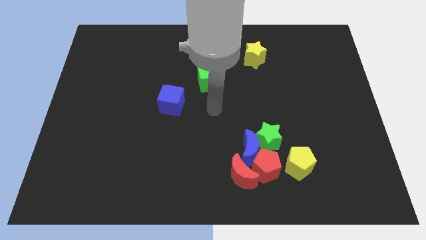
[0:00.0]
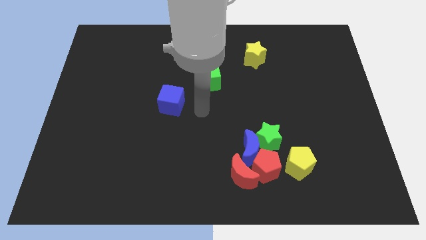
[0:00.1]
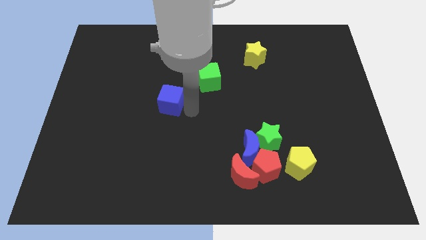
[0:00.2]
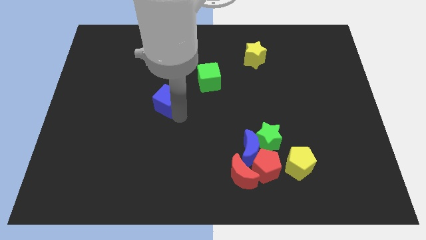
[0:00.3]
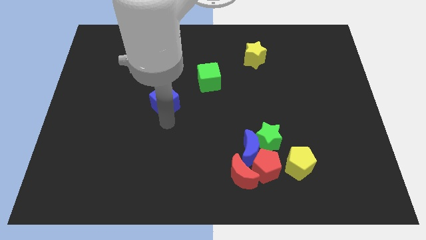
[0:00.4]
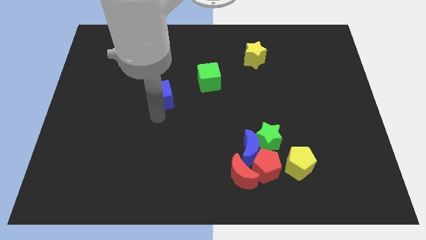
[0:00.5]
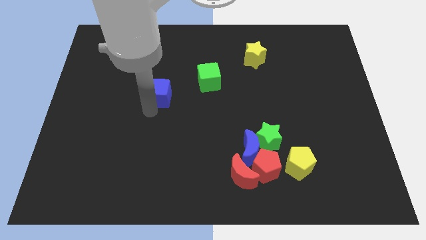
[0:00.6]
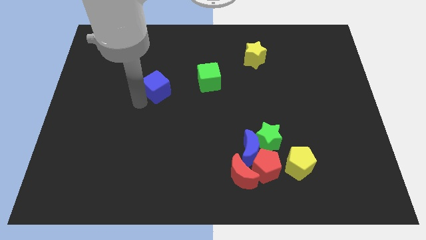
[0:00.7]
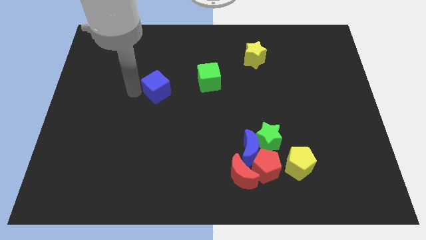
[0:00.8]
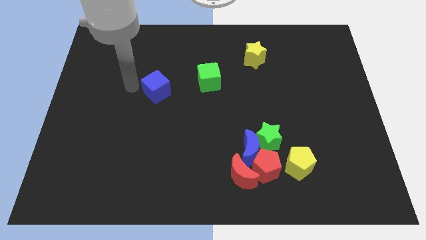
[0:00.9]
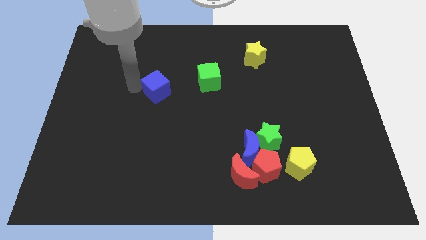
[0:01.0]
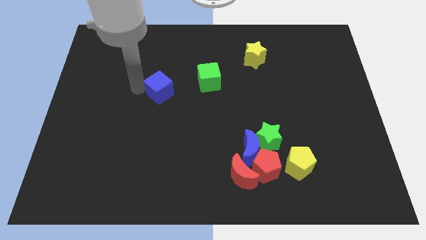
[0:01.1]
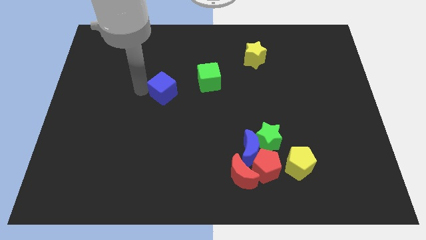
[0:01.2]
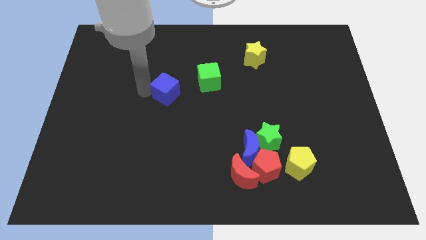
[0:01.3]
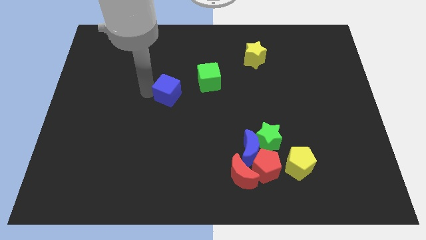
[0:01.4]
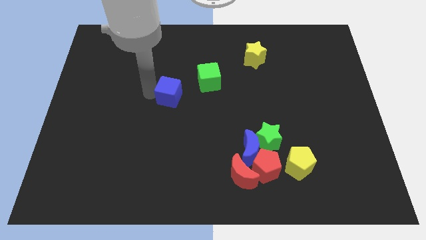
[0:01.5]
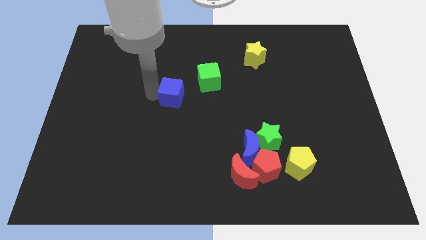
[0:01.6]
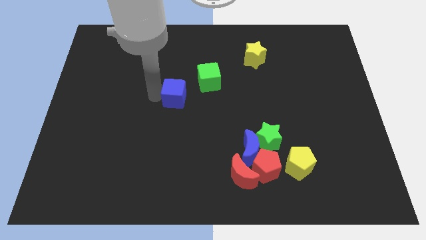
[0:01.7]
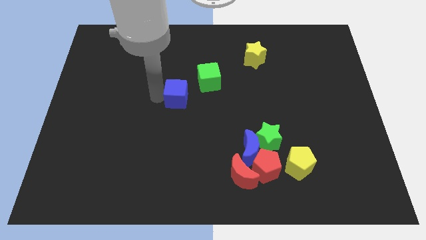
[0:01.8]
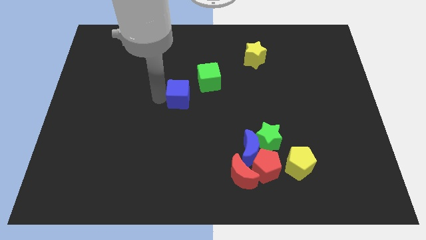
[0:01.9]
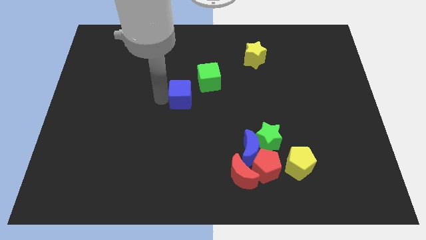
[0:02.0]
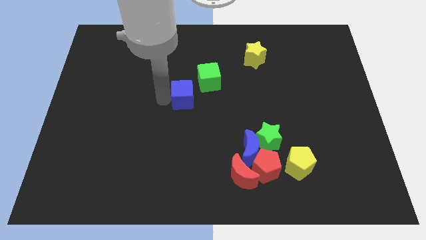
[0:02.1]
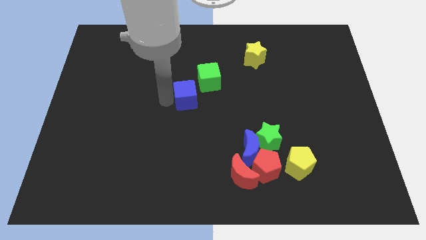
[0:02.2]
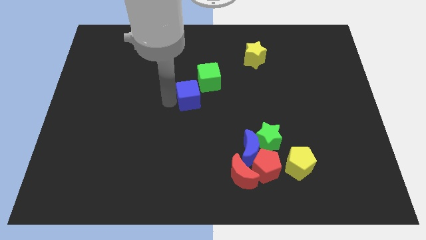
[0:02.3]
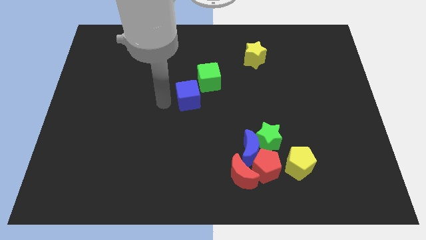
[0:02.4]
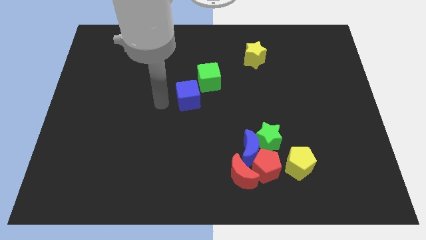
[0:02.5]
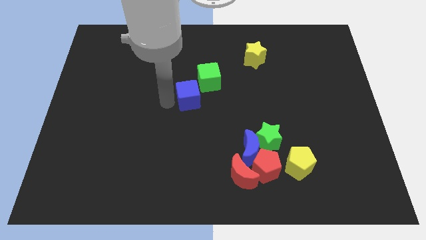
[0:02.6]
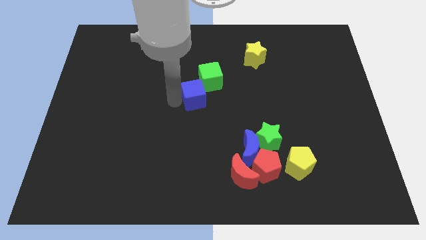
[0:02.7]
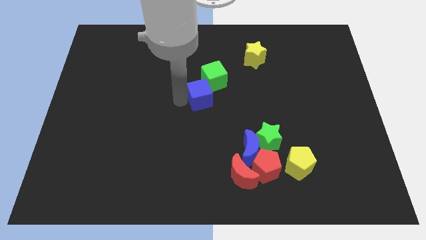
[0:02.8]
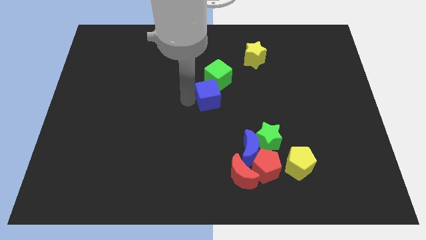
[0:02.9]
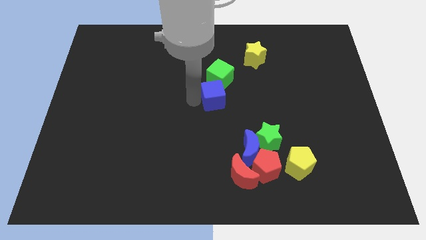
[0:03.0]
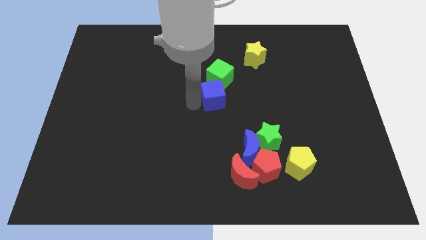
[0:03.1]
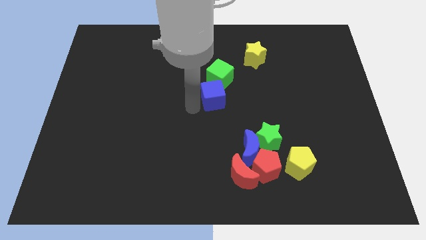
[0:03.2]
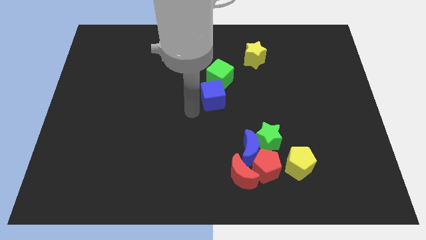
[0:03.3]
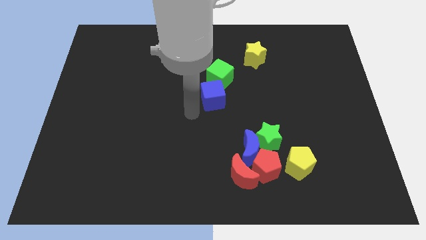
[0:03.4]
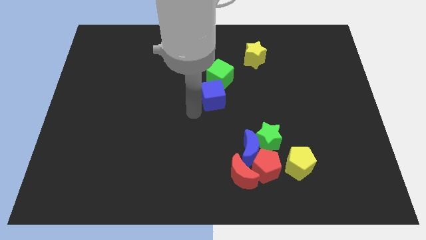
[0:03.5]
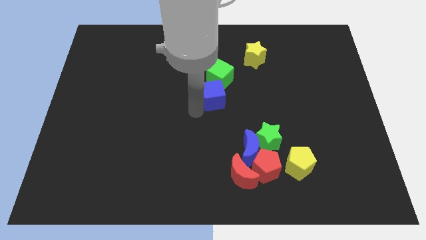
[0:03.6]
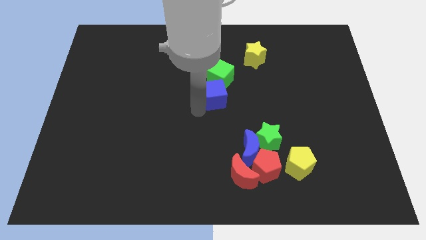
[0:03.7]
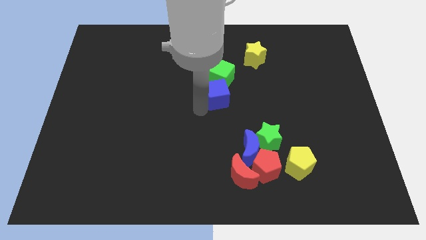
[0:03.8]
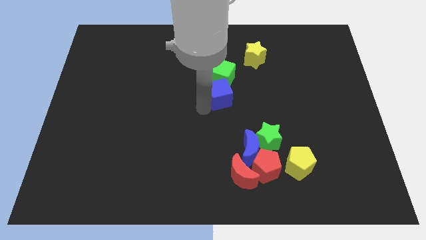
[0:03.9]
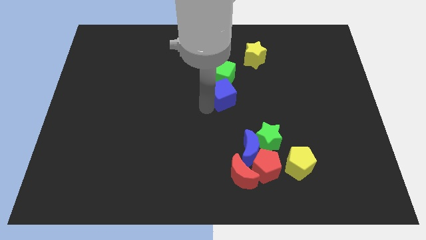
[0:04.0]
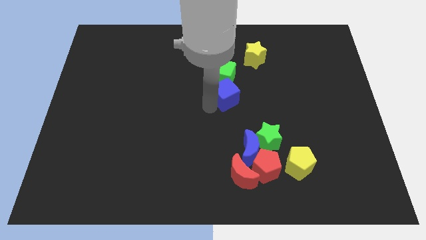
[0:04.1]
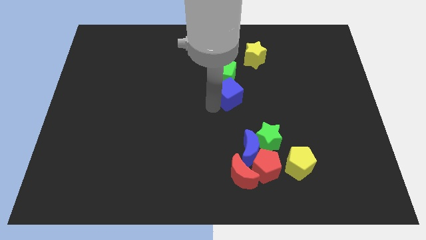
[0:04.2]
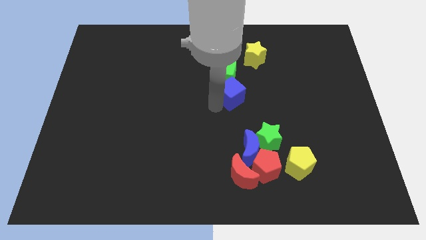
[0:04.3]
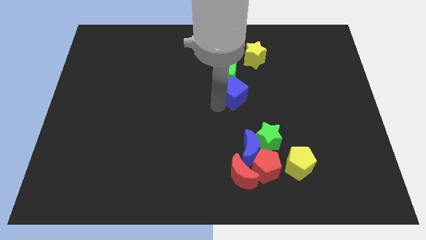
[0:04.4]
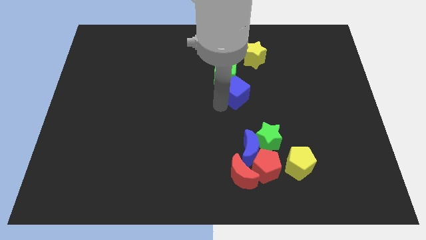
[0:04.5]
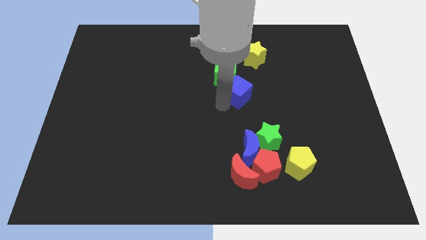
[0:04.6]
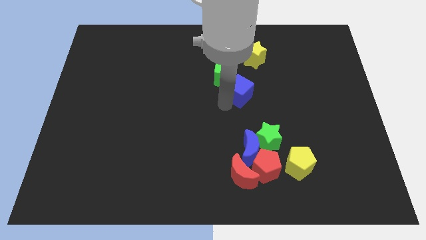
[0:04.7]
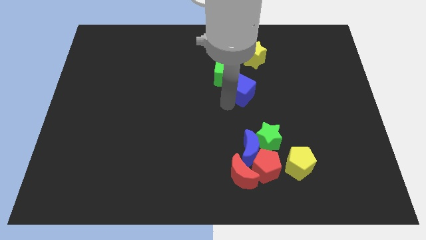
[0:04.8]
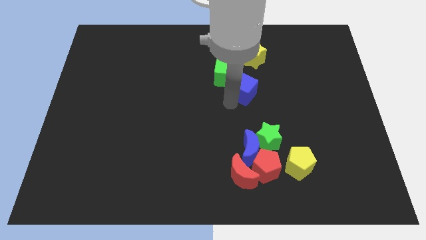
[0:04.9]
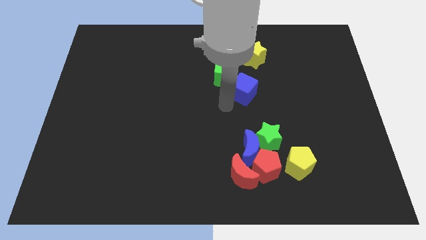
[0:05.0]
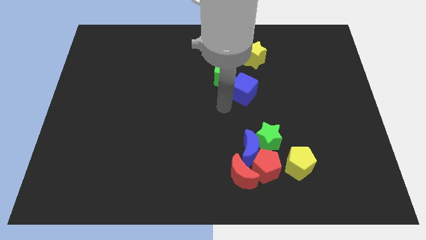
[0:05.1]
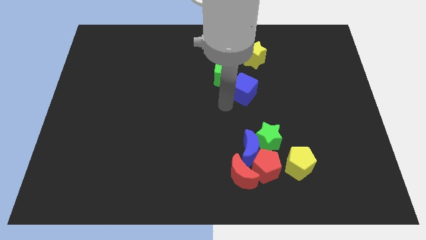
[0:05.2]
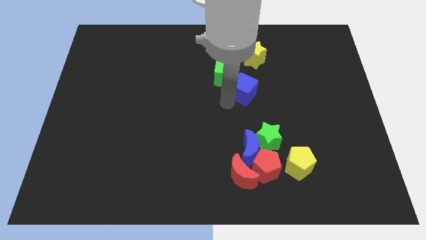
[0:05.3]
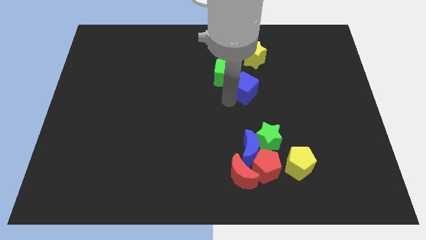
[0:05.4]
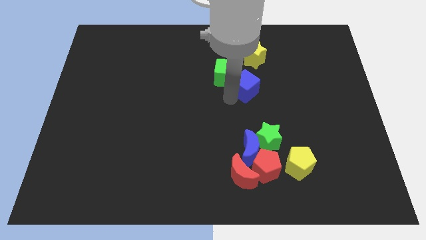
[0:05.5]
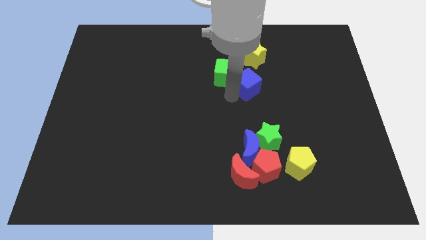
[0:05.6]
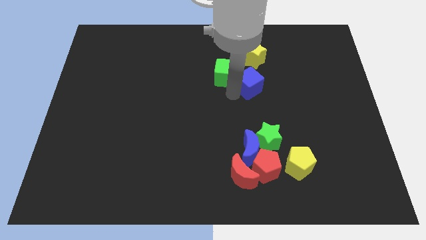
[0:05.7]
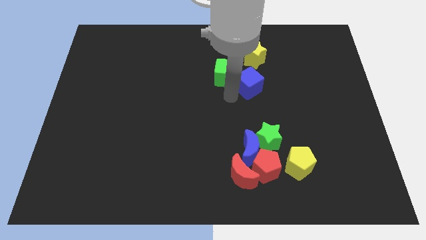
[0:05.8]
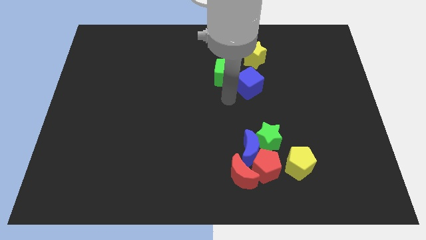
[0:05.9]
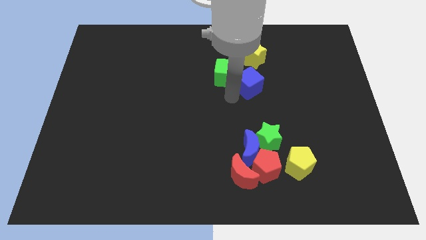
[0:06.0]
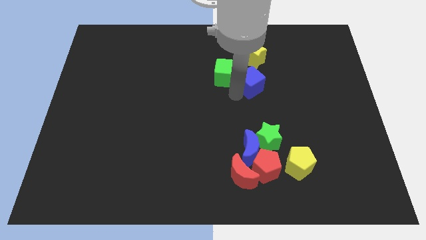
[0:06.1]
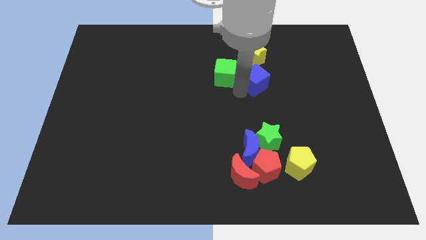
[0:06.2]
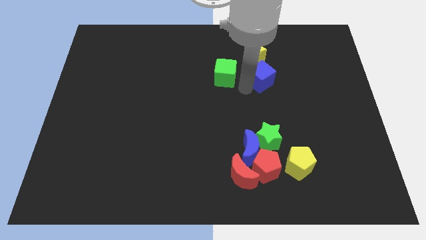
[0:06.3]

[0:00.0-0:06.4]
move the blue cube to the bottom right side of the yellow star
